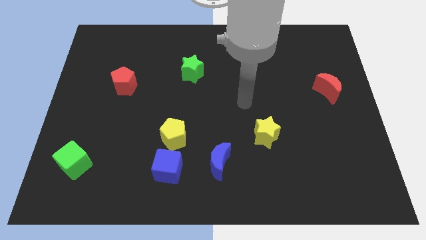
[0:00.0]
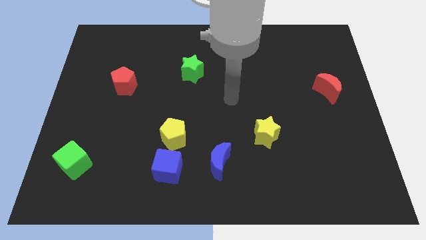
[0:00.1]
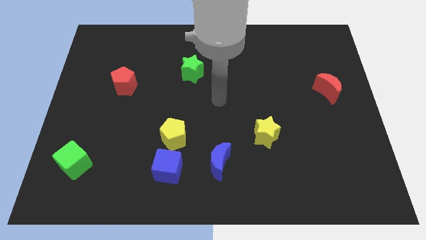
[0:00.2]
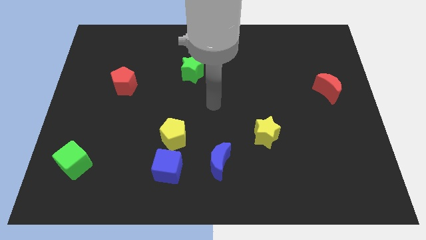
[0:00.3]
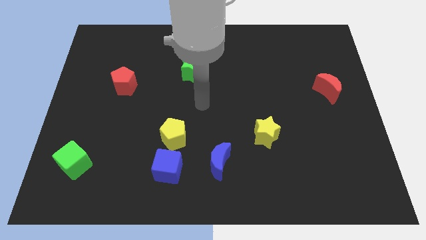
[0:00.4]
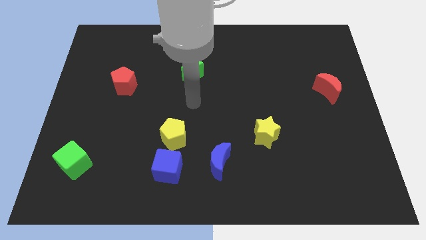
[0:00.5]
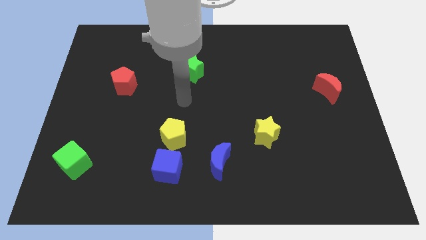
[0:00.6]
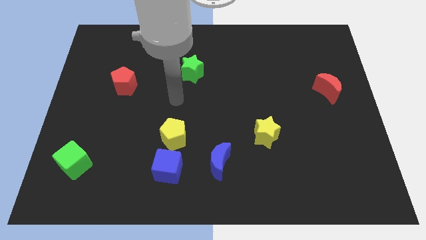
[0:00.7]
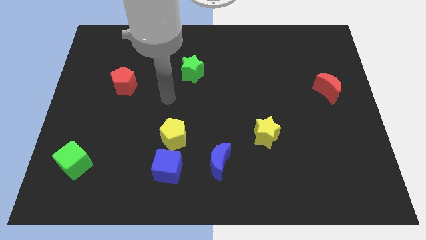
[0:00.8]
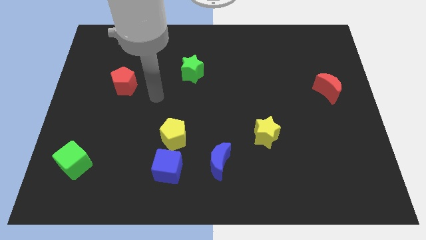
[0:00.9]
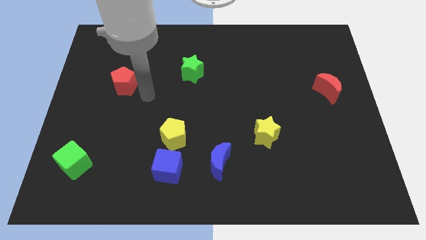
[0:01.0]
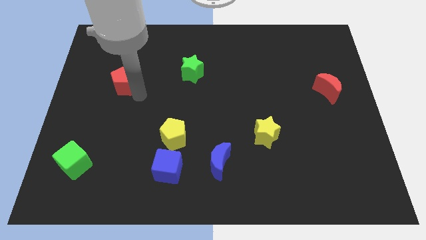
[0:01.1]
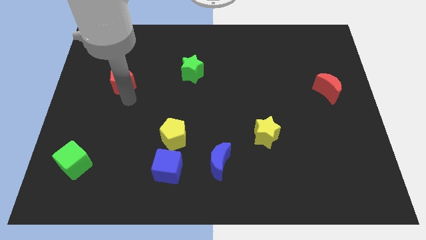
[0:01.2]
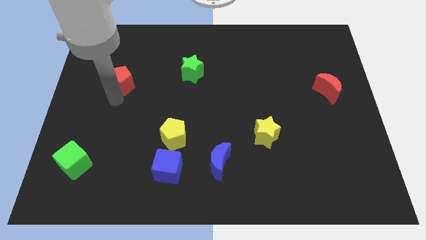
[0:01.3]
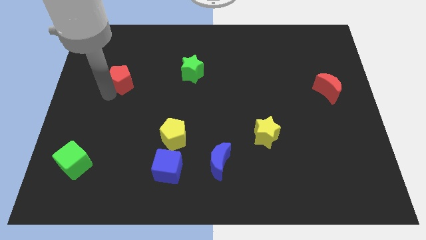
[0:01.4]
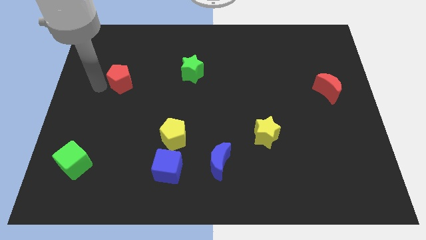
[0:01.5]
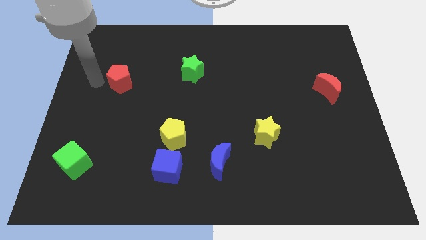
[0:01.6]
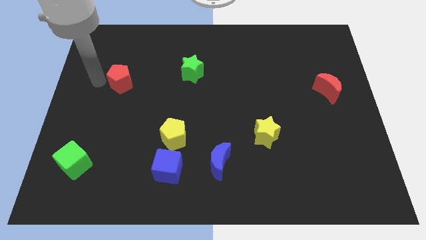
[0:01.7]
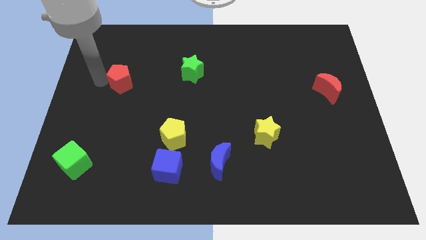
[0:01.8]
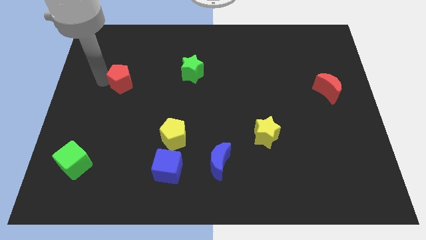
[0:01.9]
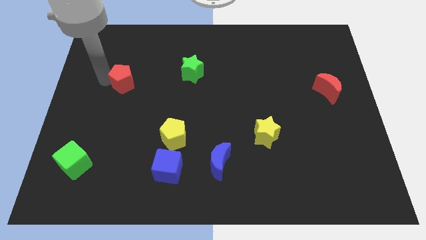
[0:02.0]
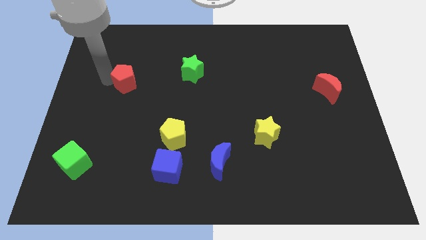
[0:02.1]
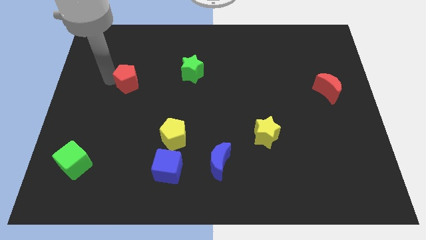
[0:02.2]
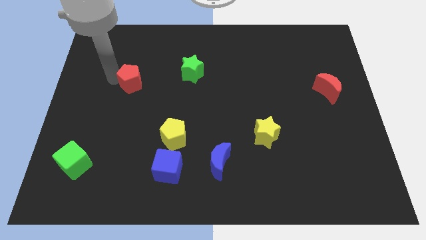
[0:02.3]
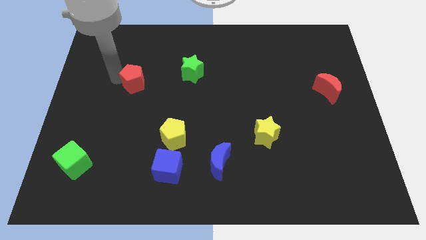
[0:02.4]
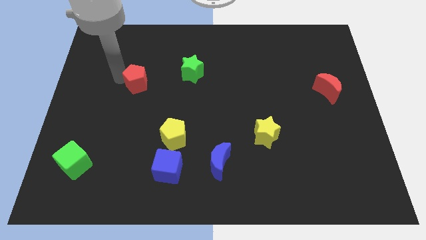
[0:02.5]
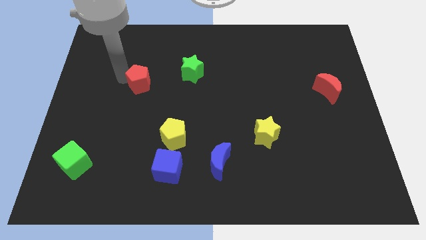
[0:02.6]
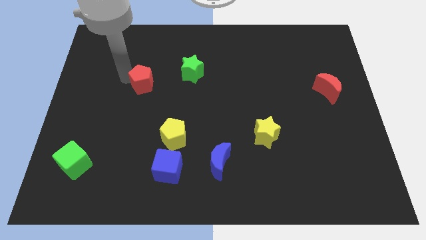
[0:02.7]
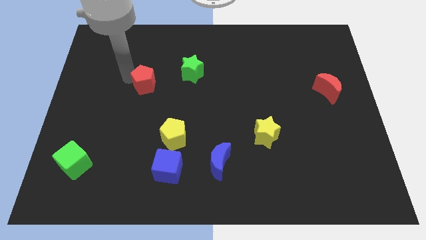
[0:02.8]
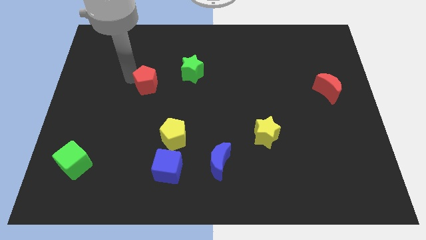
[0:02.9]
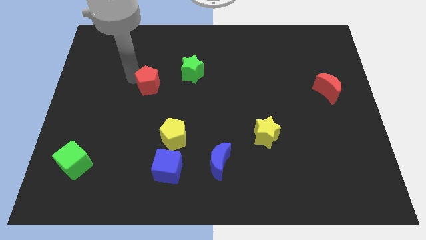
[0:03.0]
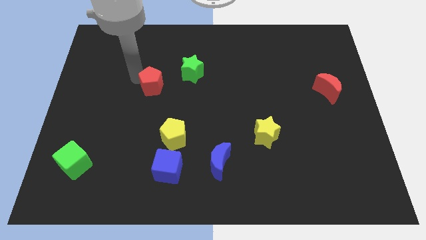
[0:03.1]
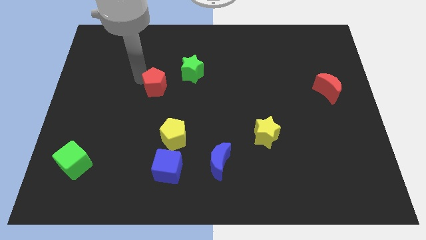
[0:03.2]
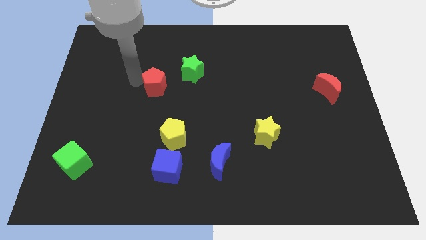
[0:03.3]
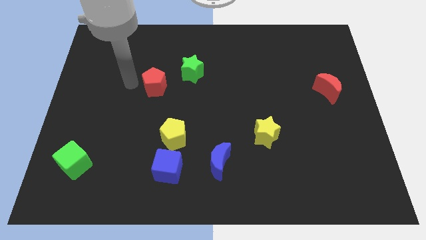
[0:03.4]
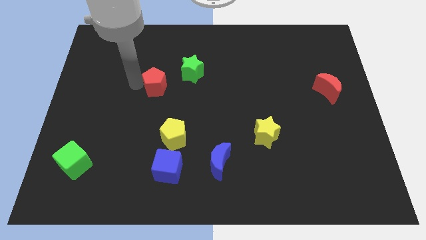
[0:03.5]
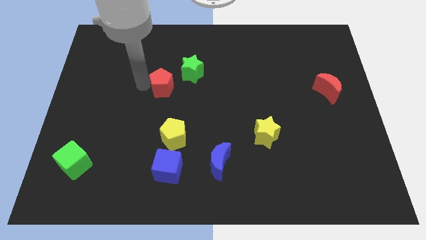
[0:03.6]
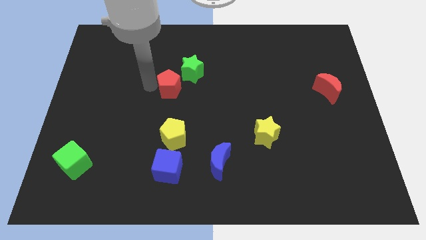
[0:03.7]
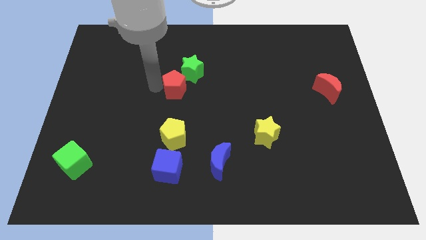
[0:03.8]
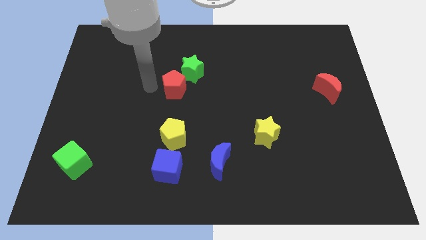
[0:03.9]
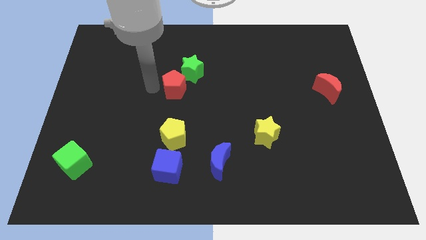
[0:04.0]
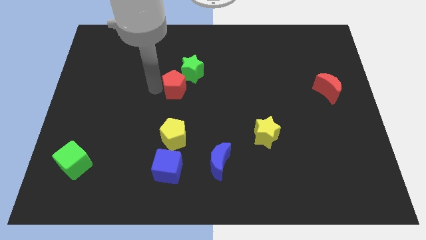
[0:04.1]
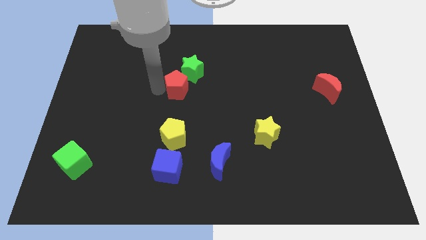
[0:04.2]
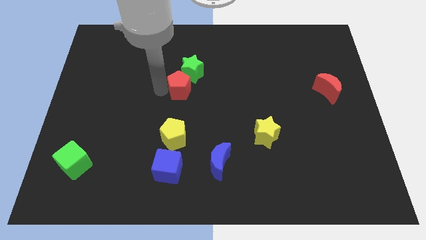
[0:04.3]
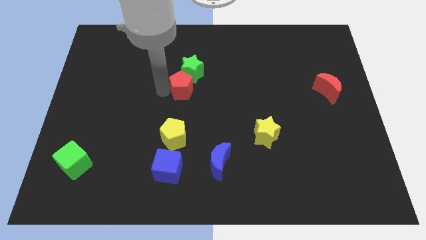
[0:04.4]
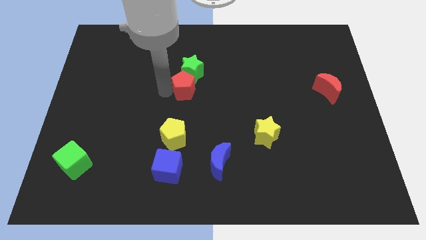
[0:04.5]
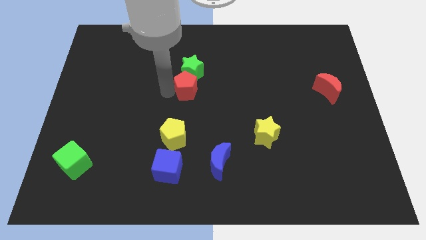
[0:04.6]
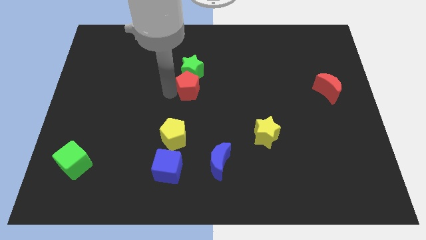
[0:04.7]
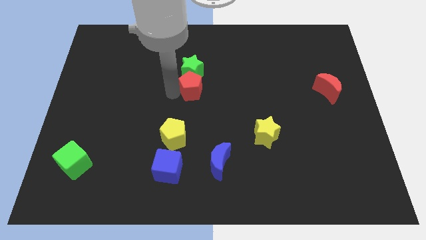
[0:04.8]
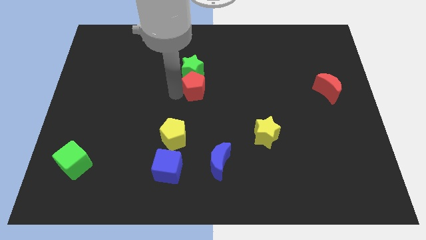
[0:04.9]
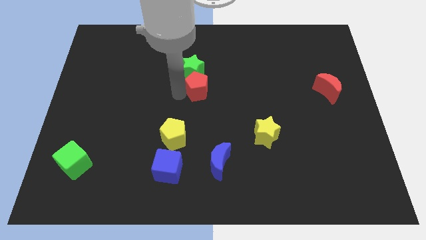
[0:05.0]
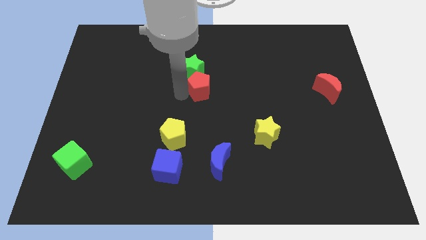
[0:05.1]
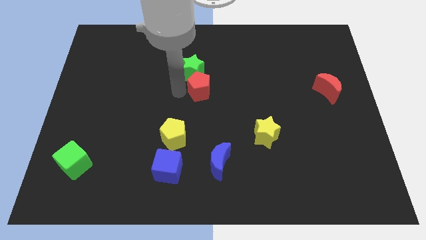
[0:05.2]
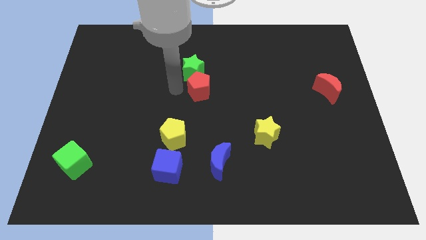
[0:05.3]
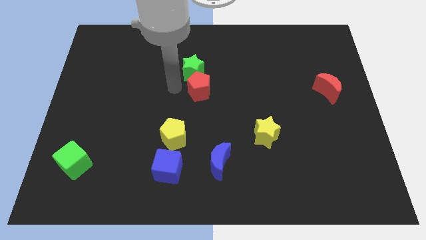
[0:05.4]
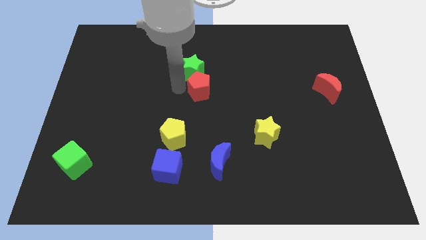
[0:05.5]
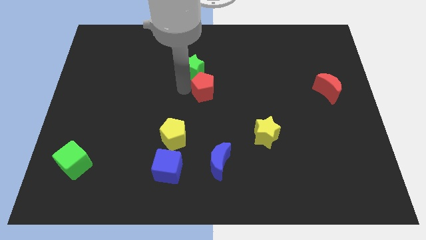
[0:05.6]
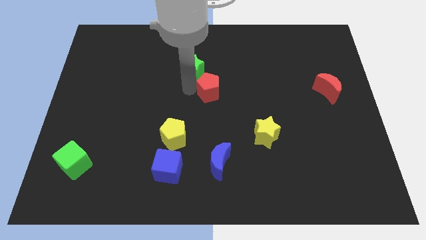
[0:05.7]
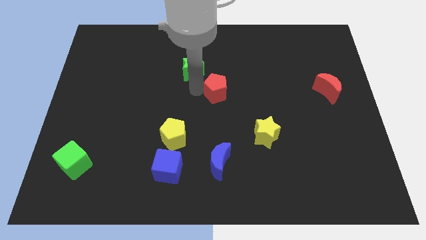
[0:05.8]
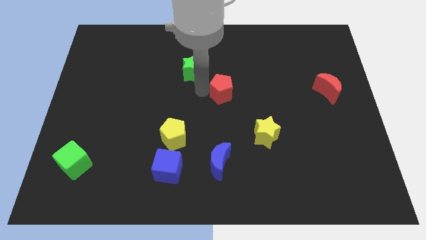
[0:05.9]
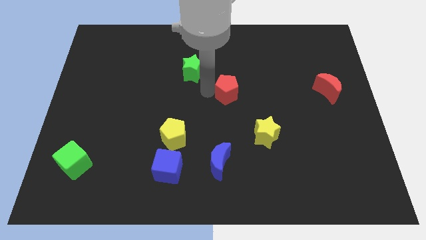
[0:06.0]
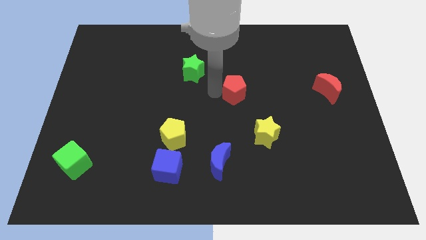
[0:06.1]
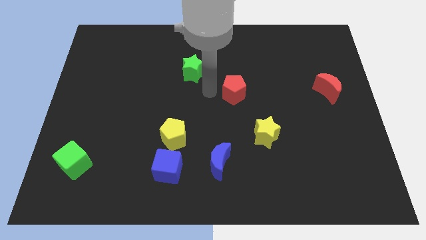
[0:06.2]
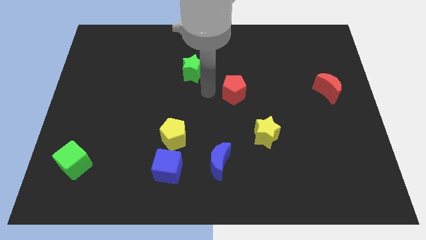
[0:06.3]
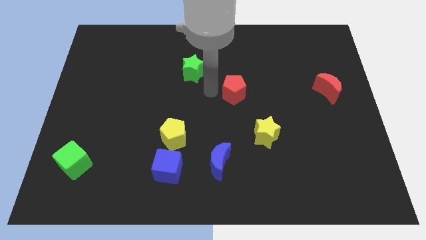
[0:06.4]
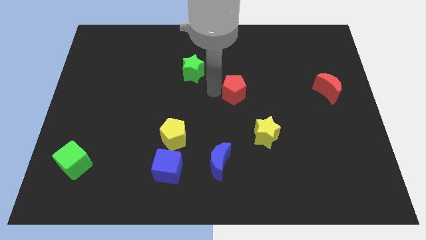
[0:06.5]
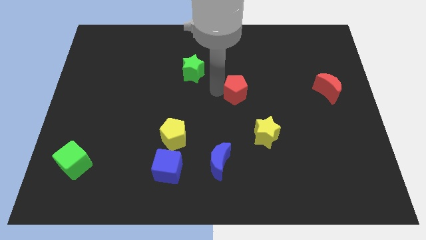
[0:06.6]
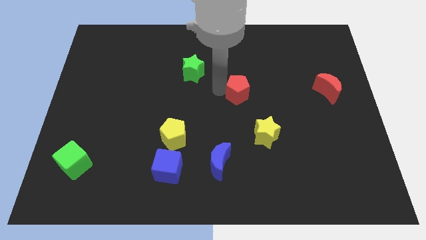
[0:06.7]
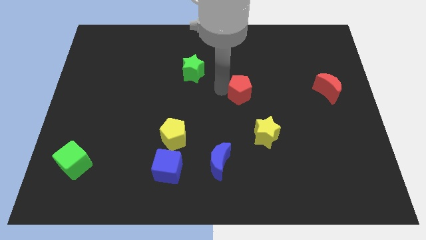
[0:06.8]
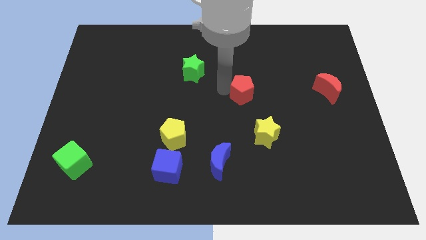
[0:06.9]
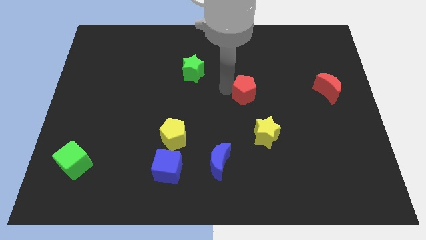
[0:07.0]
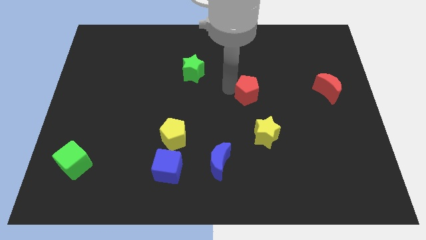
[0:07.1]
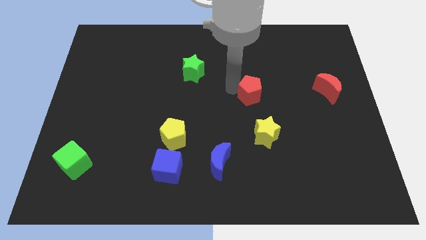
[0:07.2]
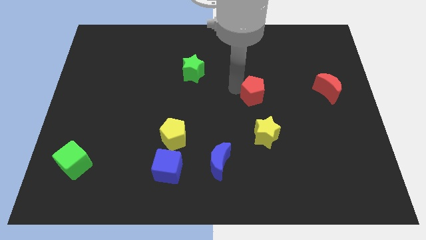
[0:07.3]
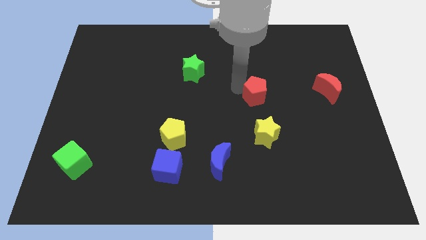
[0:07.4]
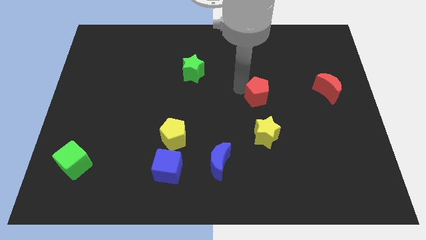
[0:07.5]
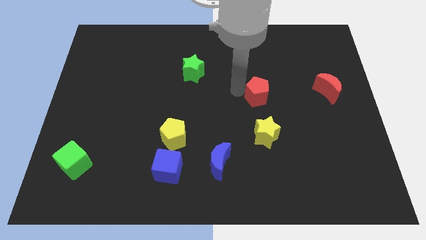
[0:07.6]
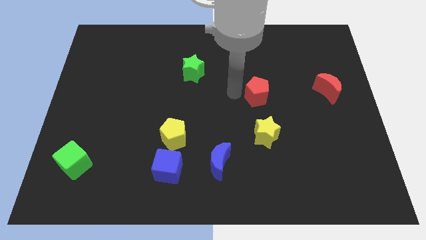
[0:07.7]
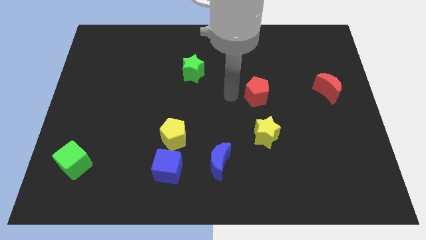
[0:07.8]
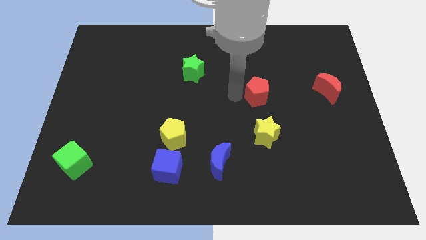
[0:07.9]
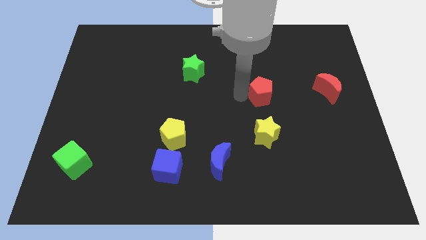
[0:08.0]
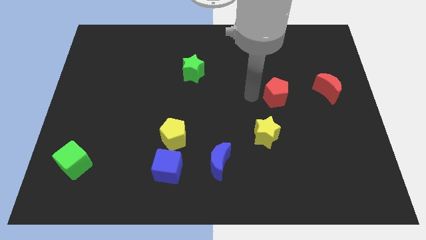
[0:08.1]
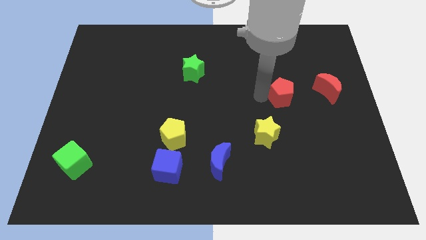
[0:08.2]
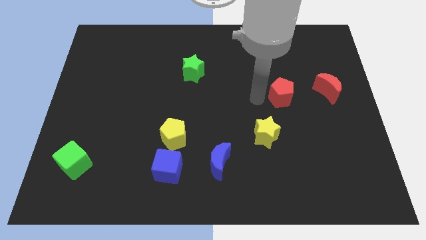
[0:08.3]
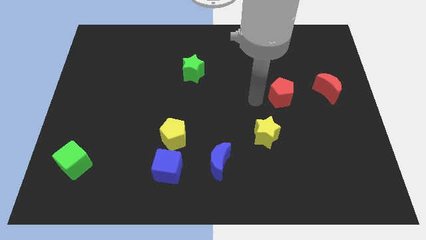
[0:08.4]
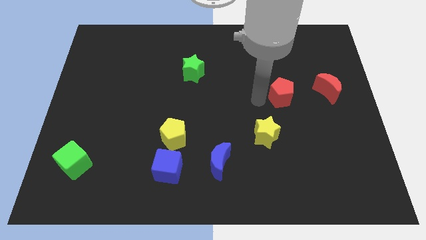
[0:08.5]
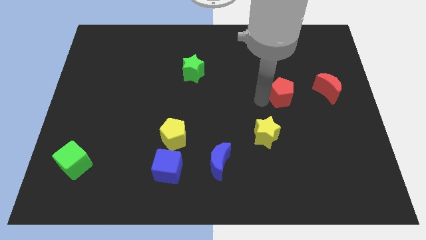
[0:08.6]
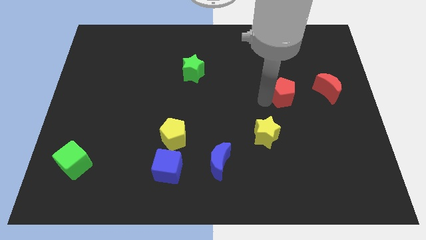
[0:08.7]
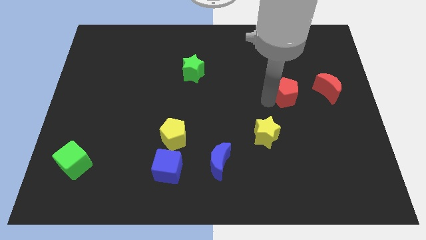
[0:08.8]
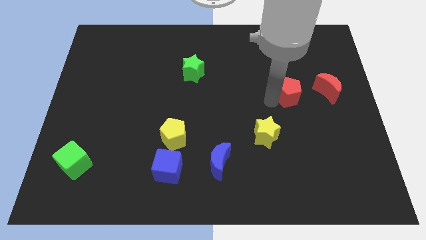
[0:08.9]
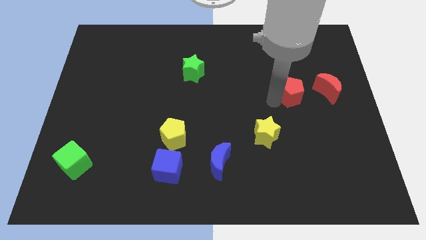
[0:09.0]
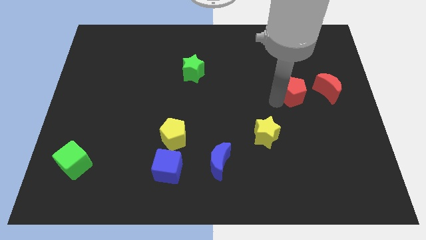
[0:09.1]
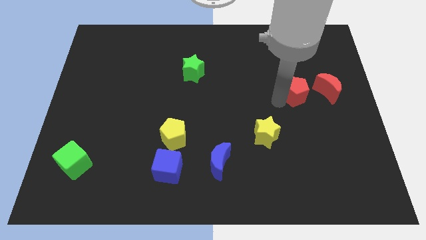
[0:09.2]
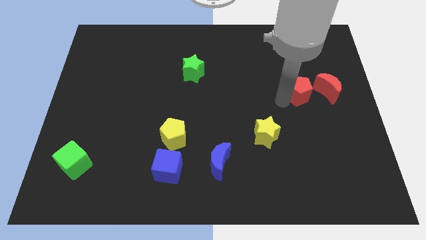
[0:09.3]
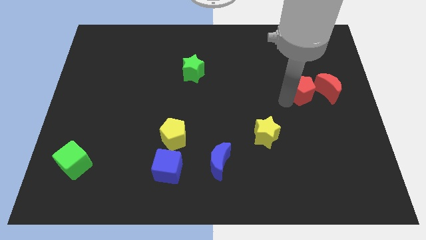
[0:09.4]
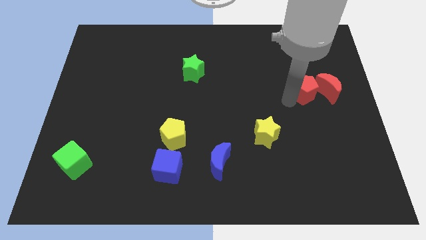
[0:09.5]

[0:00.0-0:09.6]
slide the red pentagon next to the red moon
